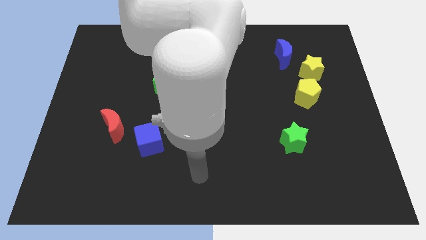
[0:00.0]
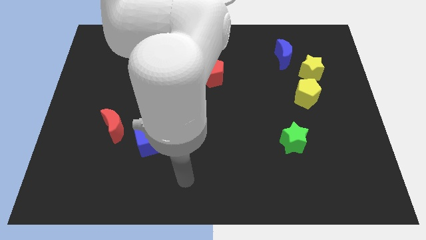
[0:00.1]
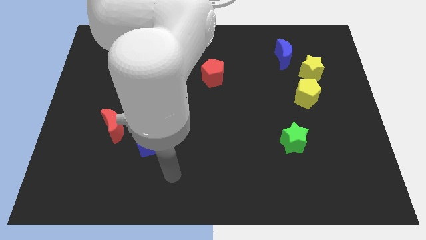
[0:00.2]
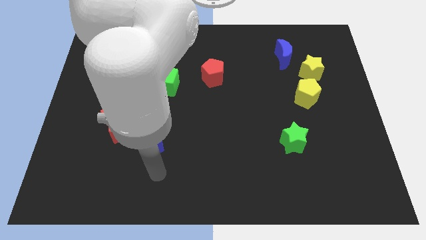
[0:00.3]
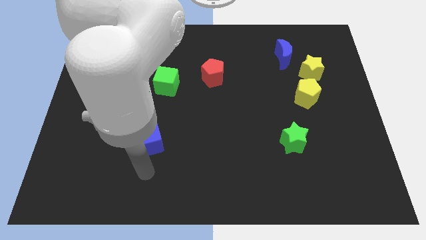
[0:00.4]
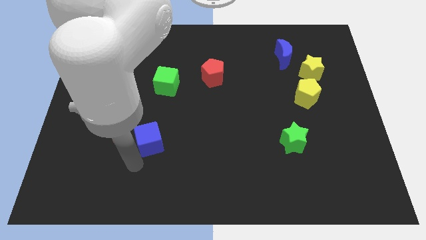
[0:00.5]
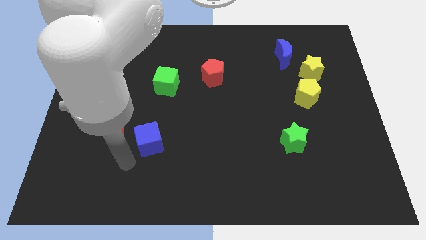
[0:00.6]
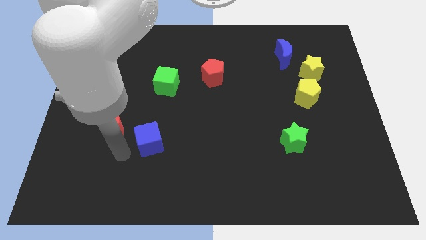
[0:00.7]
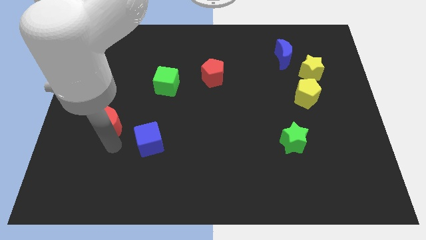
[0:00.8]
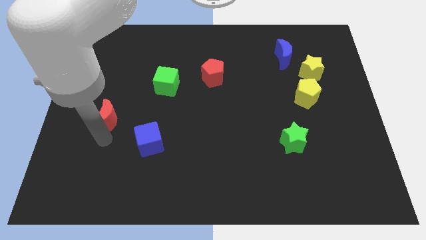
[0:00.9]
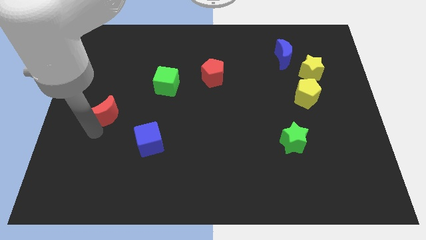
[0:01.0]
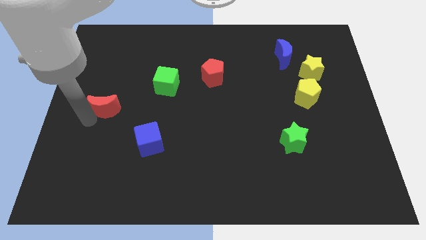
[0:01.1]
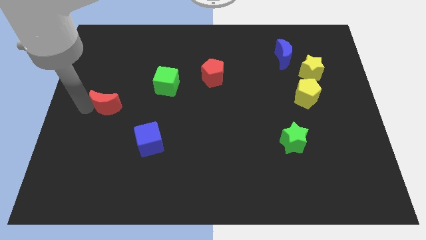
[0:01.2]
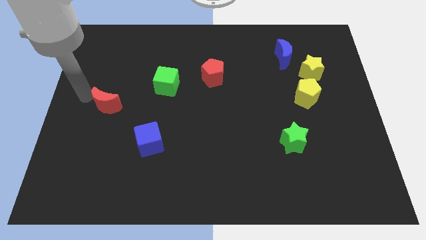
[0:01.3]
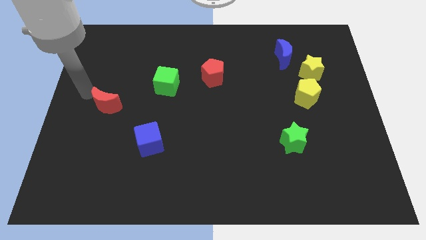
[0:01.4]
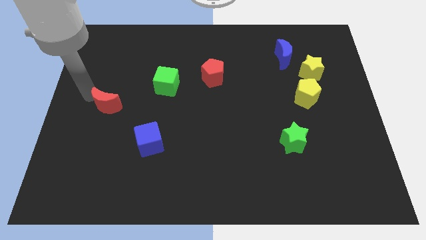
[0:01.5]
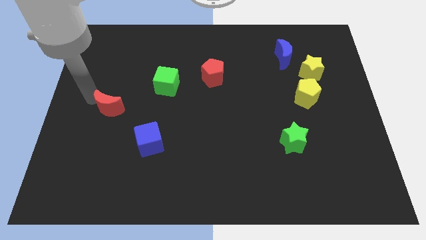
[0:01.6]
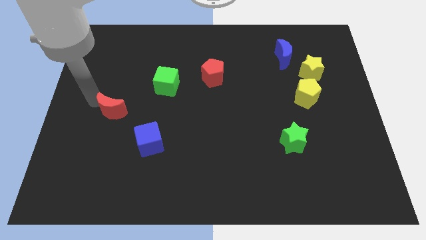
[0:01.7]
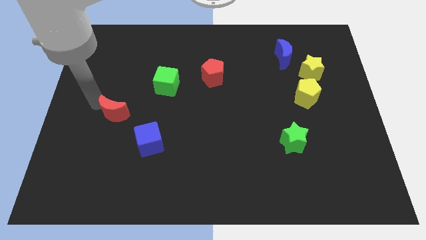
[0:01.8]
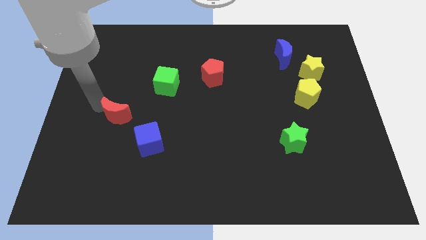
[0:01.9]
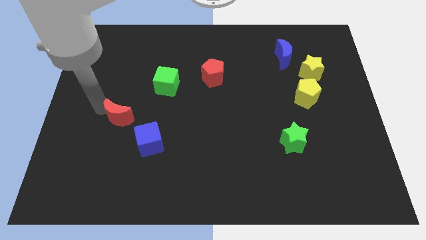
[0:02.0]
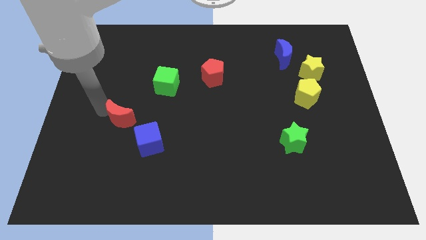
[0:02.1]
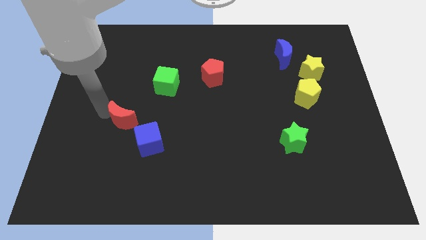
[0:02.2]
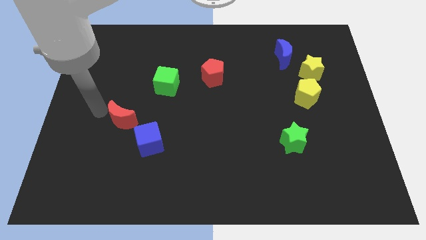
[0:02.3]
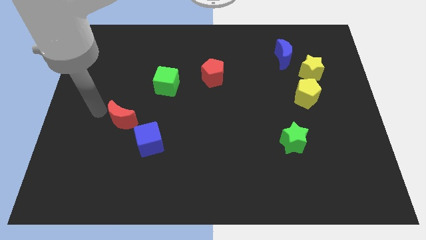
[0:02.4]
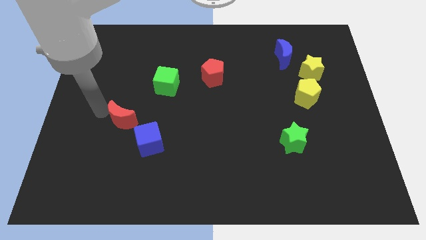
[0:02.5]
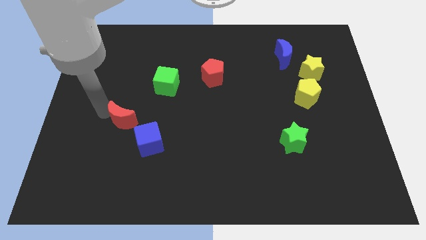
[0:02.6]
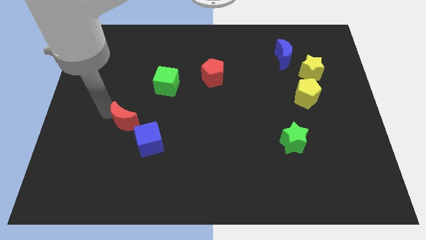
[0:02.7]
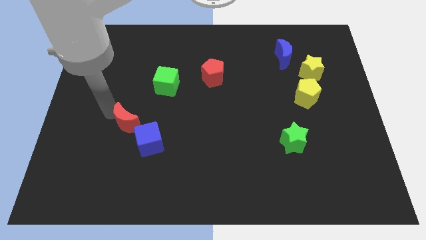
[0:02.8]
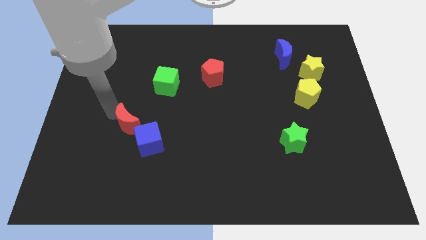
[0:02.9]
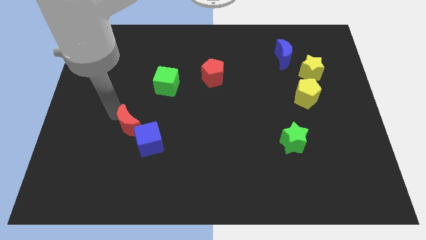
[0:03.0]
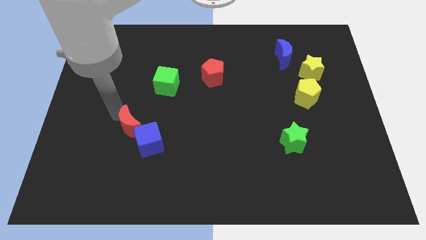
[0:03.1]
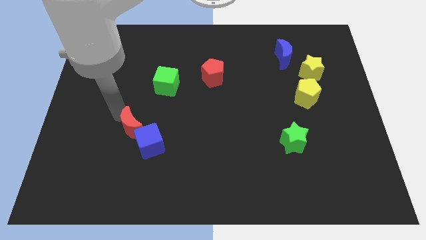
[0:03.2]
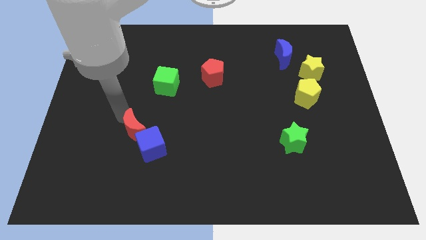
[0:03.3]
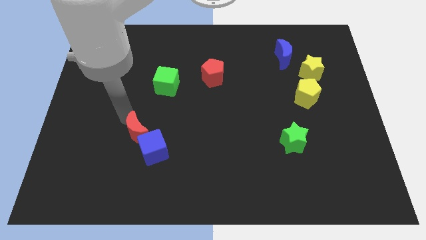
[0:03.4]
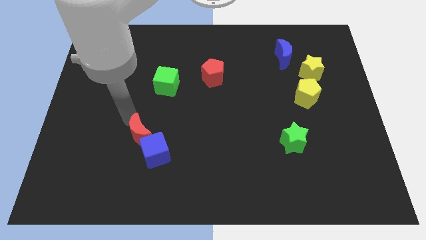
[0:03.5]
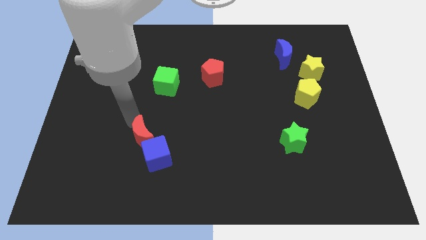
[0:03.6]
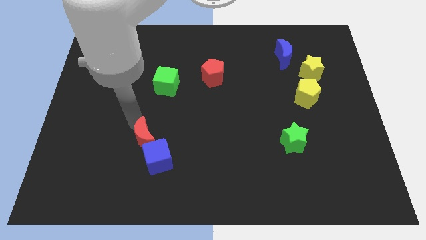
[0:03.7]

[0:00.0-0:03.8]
slightly push the red moon to the right

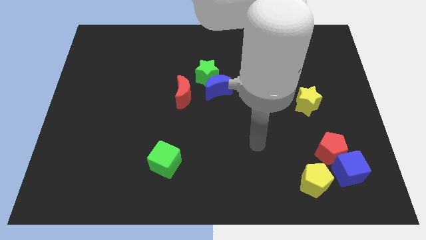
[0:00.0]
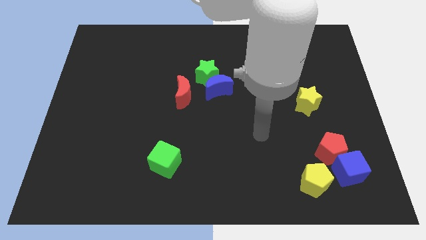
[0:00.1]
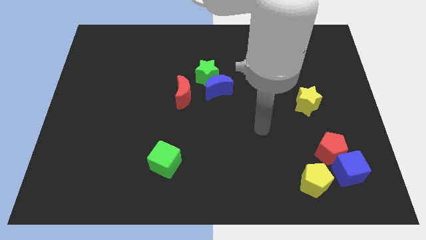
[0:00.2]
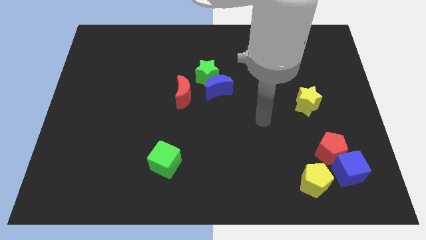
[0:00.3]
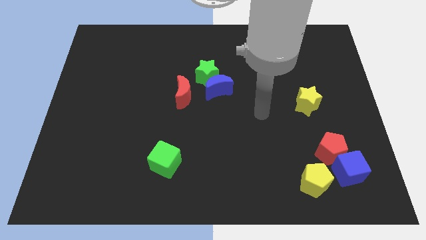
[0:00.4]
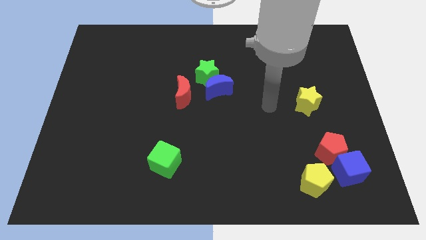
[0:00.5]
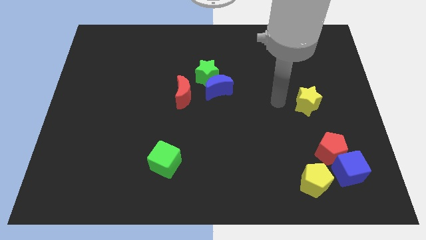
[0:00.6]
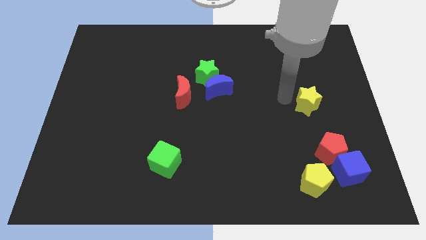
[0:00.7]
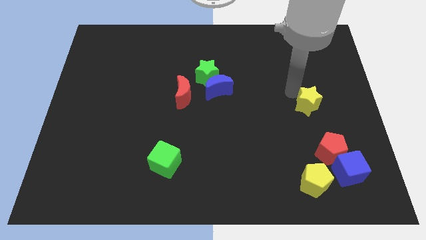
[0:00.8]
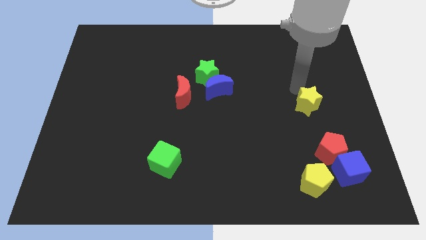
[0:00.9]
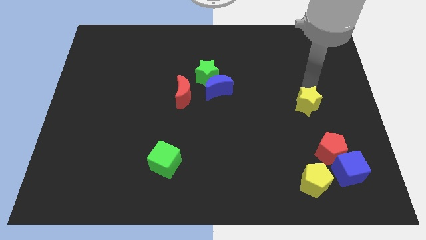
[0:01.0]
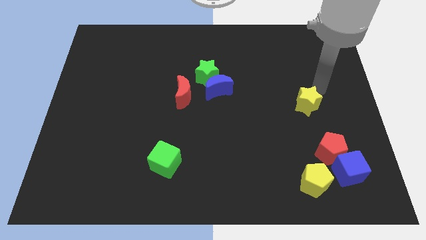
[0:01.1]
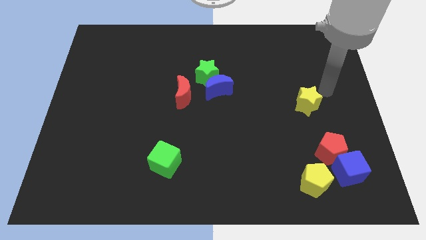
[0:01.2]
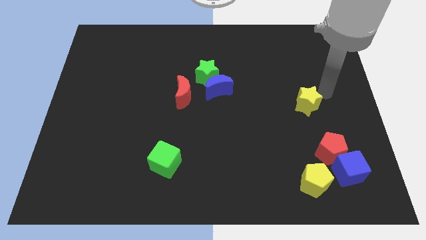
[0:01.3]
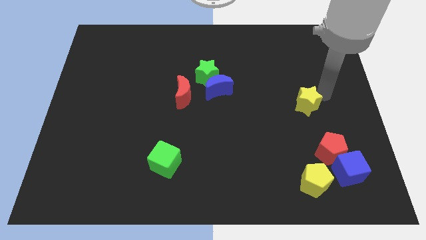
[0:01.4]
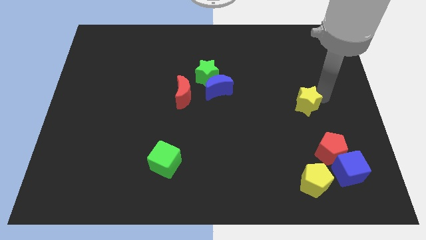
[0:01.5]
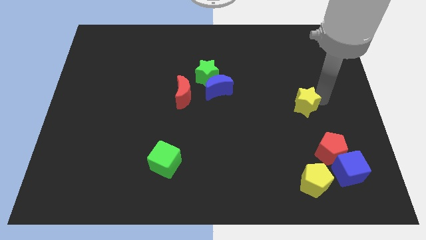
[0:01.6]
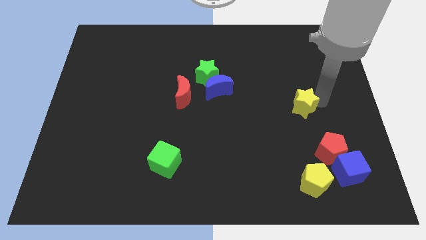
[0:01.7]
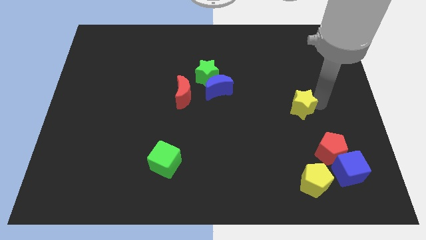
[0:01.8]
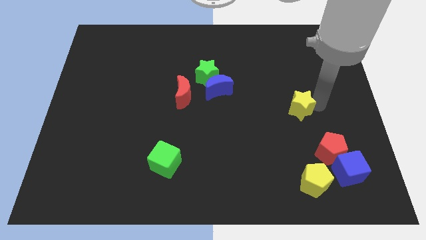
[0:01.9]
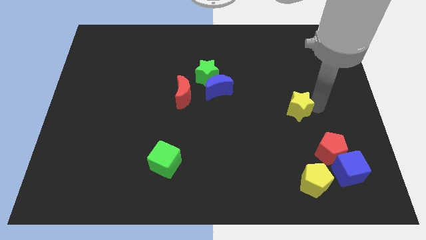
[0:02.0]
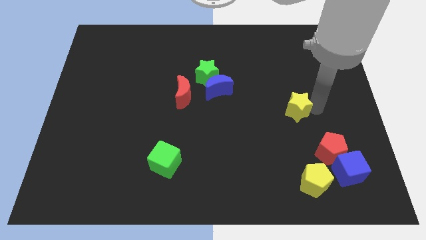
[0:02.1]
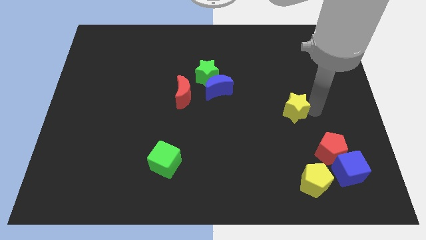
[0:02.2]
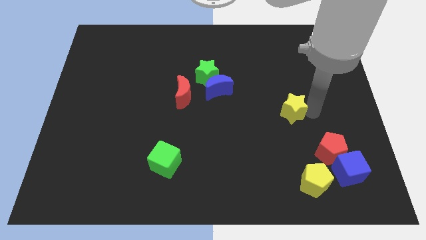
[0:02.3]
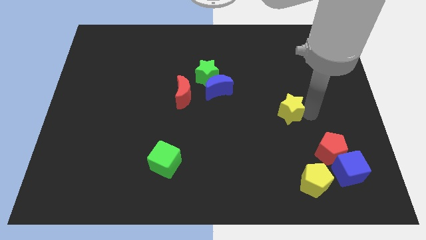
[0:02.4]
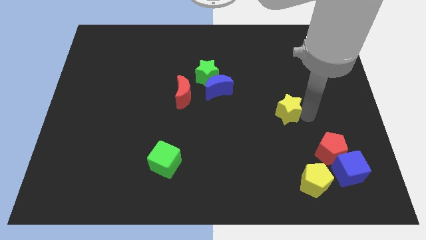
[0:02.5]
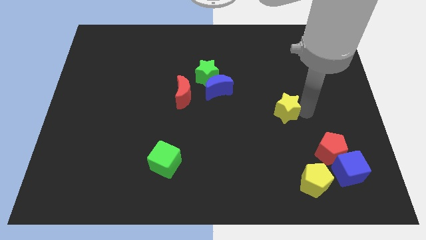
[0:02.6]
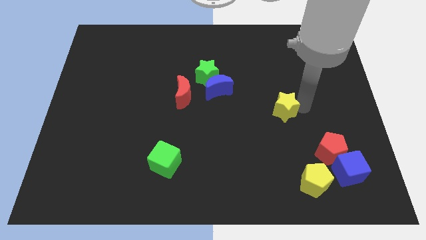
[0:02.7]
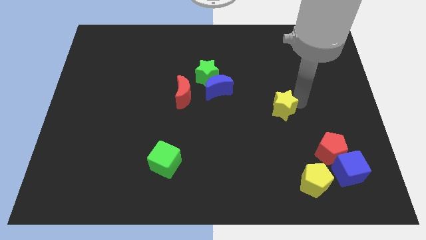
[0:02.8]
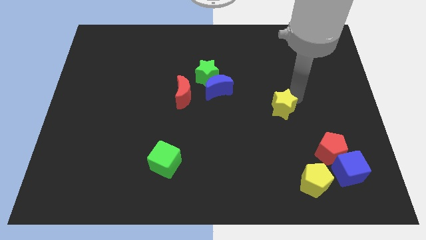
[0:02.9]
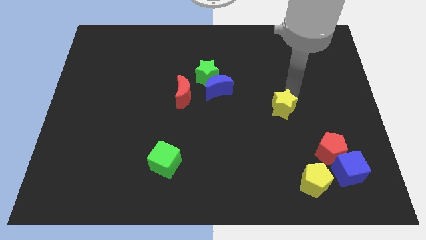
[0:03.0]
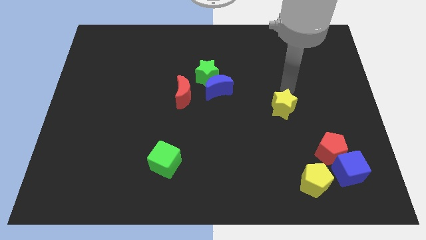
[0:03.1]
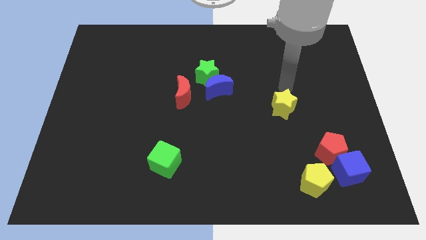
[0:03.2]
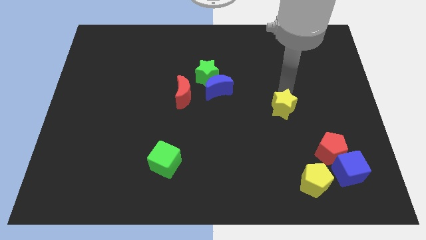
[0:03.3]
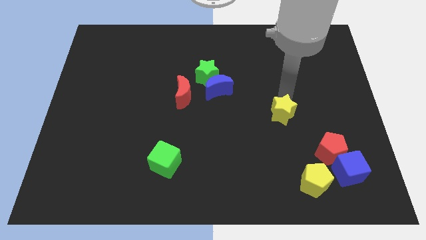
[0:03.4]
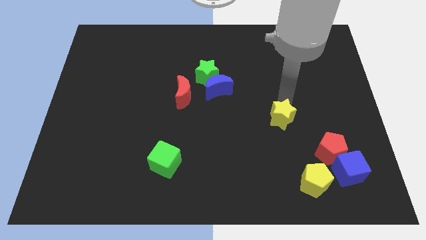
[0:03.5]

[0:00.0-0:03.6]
move the yellow star down and to the left diagonally somewhat

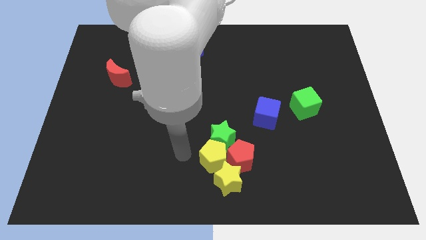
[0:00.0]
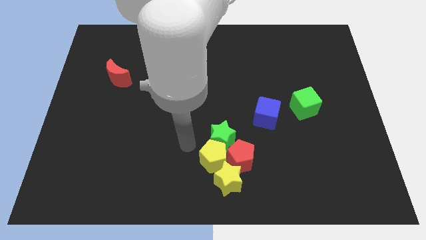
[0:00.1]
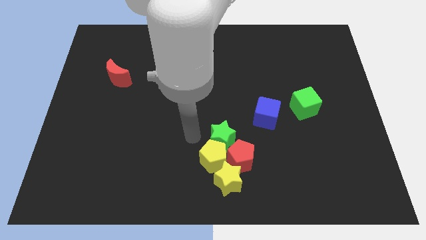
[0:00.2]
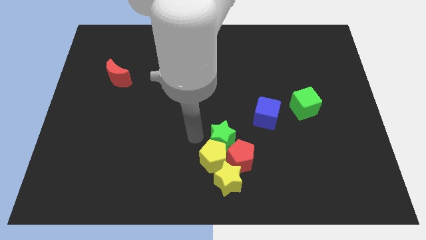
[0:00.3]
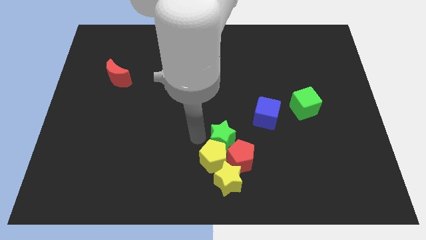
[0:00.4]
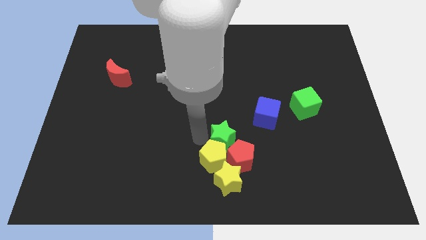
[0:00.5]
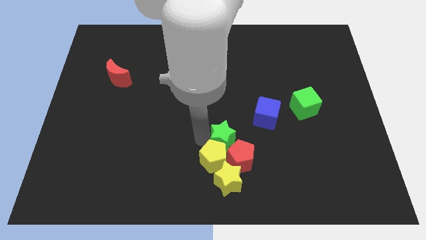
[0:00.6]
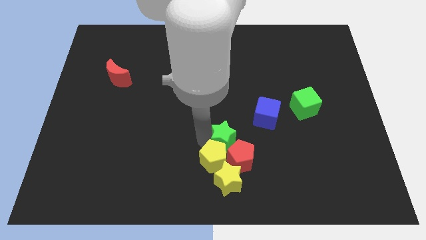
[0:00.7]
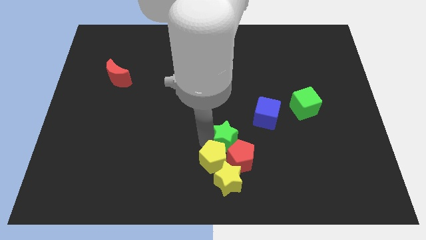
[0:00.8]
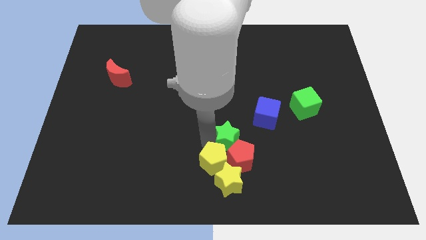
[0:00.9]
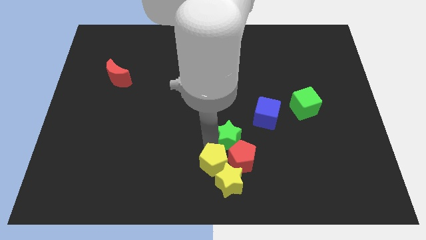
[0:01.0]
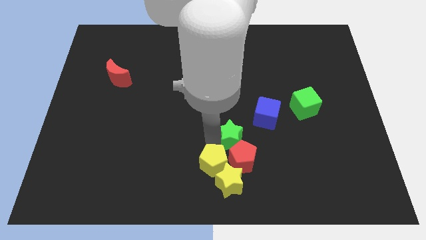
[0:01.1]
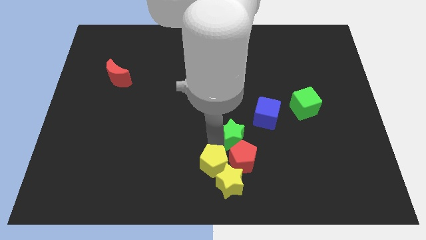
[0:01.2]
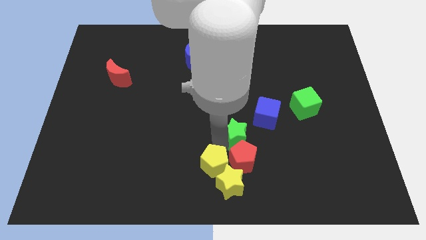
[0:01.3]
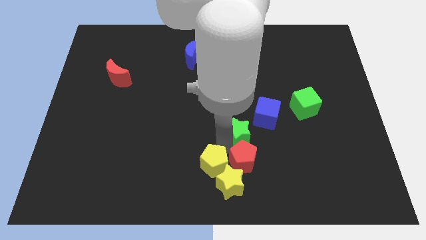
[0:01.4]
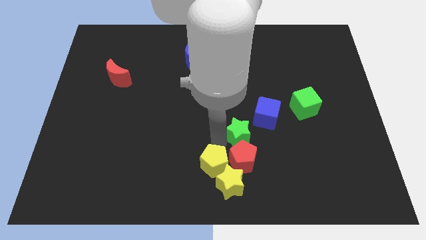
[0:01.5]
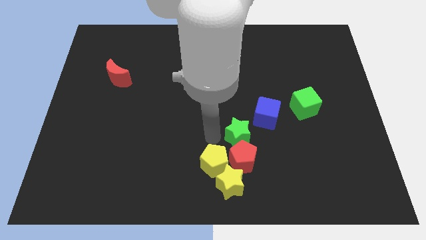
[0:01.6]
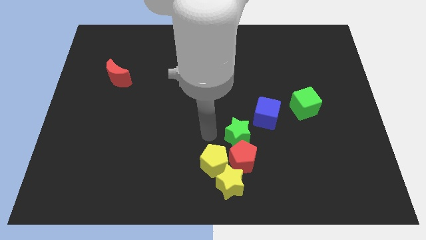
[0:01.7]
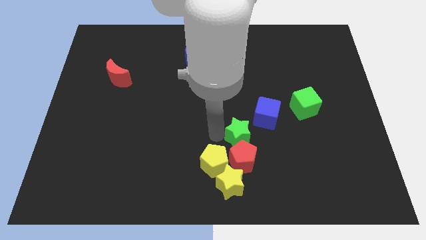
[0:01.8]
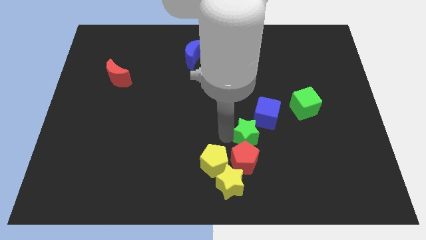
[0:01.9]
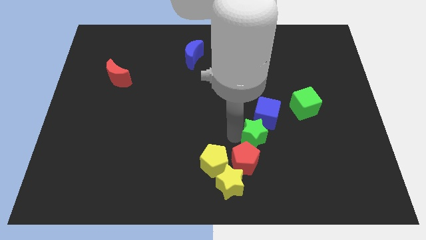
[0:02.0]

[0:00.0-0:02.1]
move the green star a little bit right
